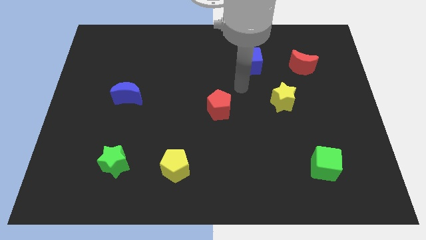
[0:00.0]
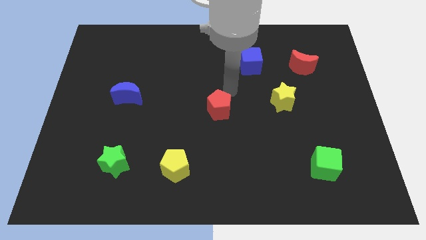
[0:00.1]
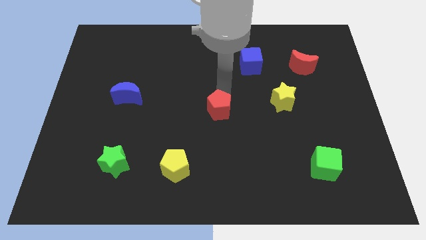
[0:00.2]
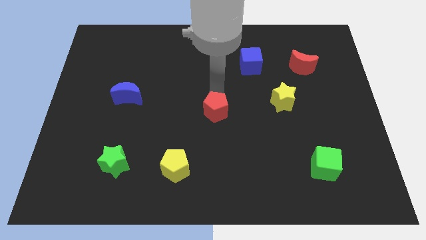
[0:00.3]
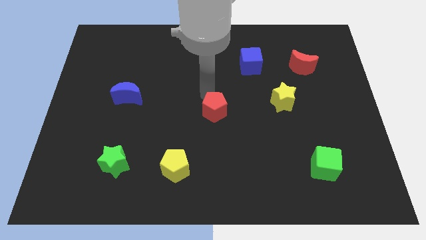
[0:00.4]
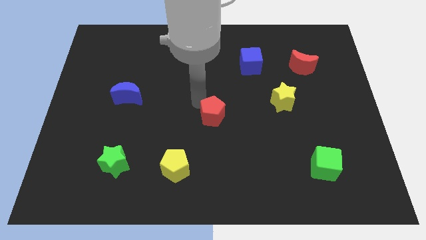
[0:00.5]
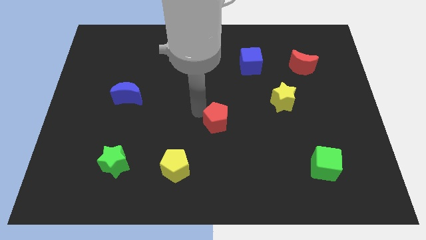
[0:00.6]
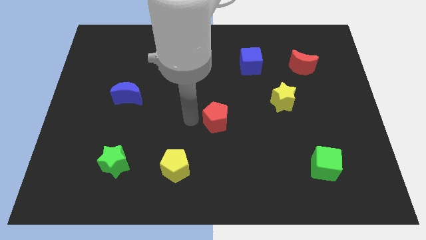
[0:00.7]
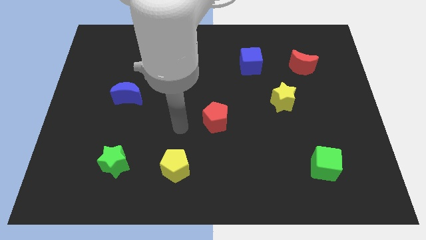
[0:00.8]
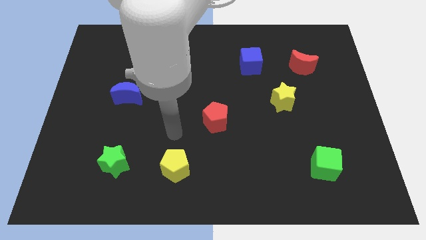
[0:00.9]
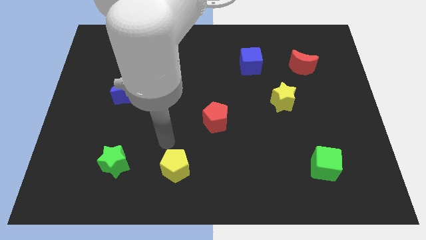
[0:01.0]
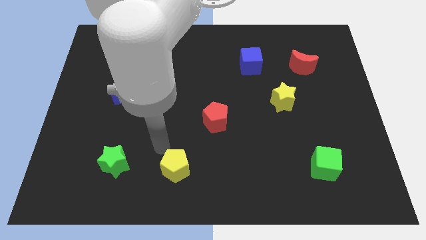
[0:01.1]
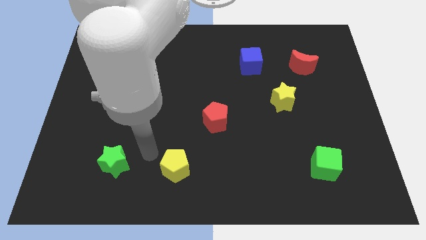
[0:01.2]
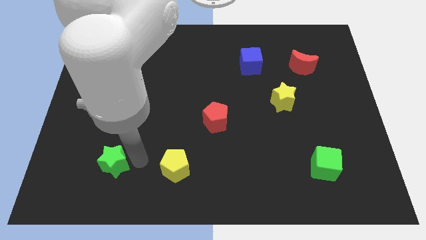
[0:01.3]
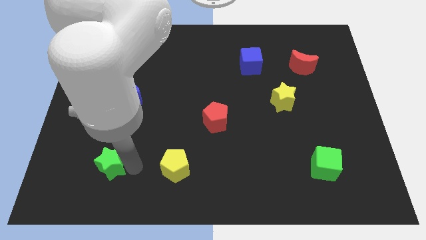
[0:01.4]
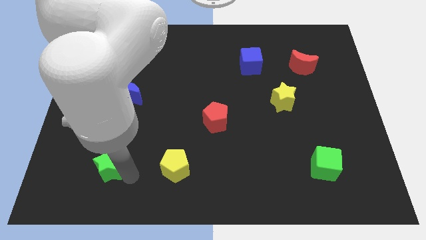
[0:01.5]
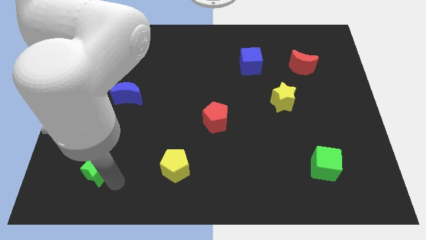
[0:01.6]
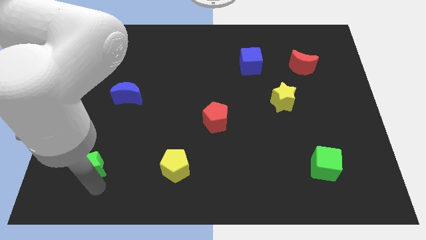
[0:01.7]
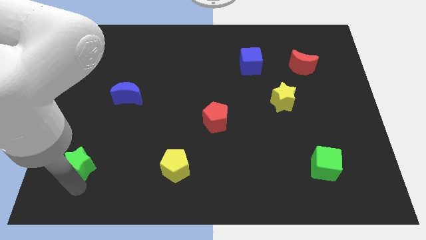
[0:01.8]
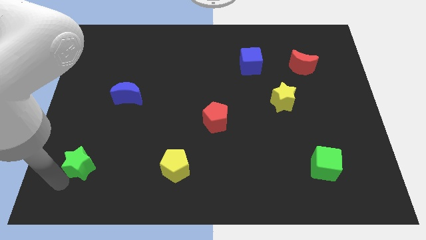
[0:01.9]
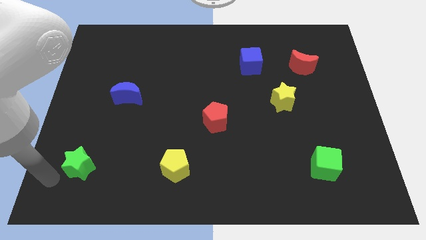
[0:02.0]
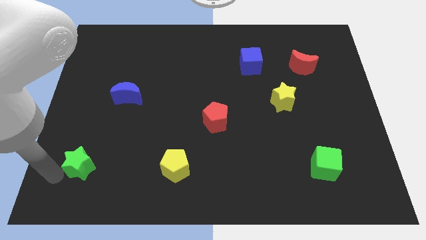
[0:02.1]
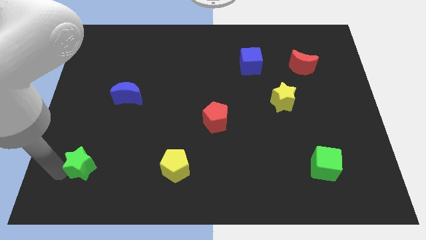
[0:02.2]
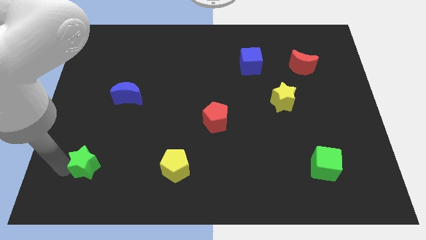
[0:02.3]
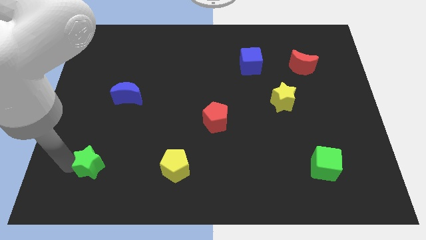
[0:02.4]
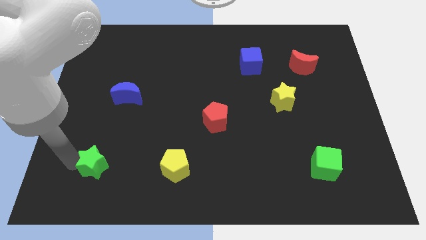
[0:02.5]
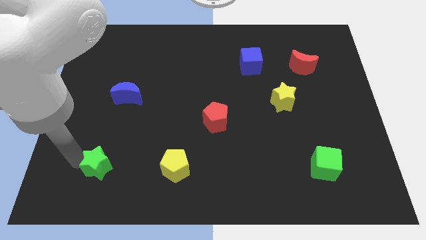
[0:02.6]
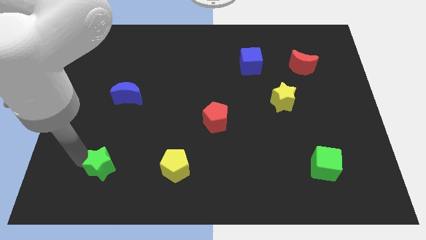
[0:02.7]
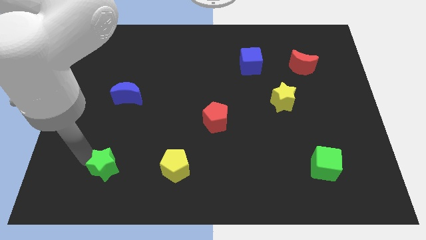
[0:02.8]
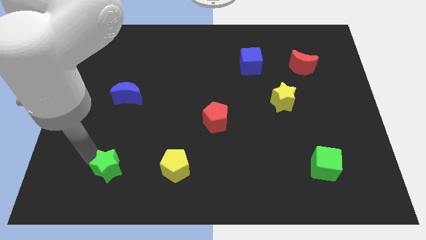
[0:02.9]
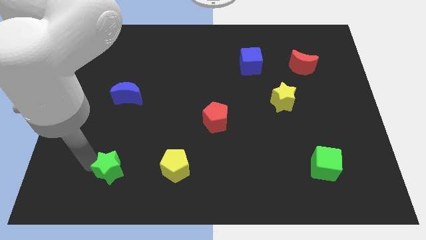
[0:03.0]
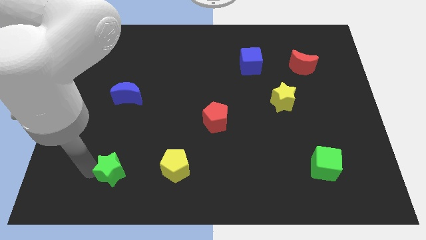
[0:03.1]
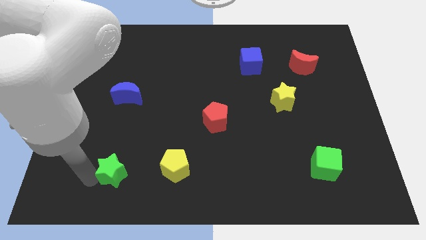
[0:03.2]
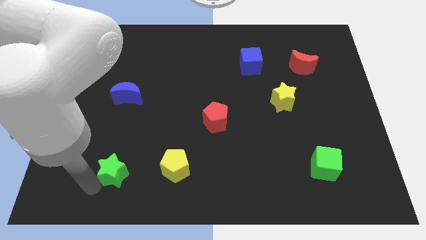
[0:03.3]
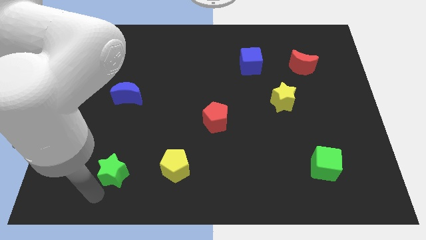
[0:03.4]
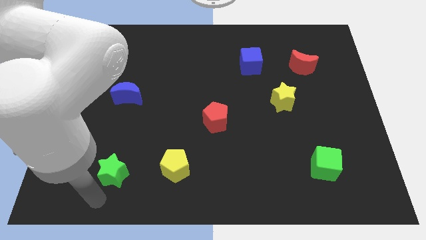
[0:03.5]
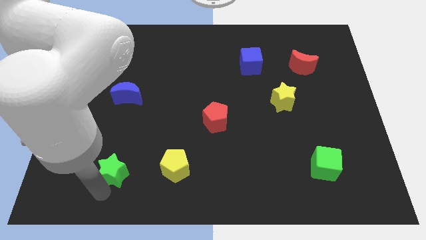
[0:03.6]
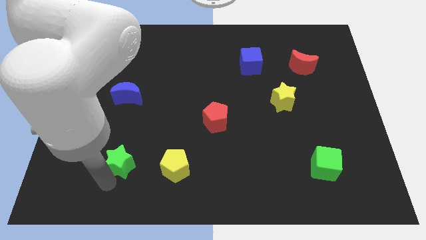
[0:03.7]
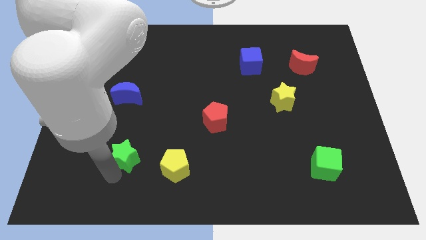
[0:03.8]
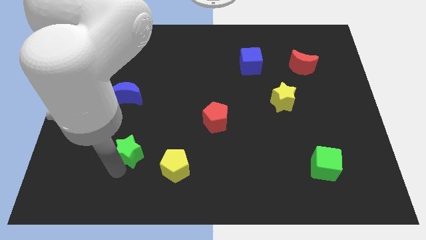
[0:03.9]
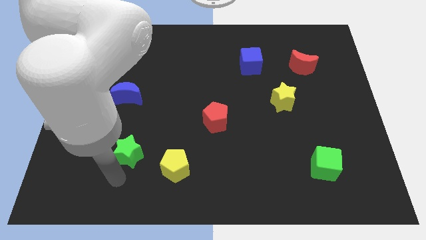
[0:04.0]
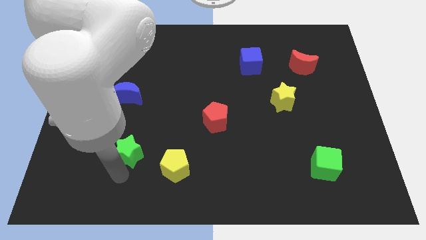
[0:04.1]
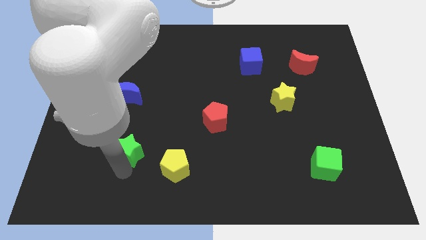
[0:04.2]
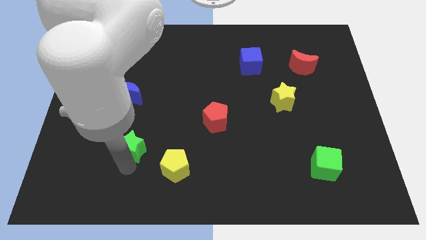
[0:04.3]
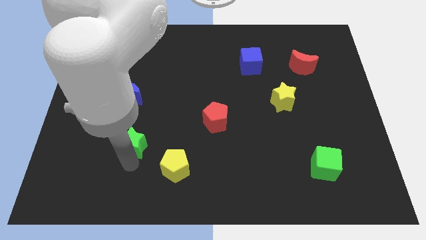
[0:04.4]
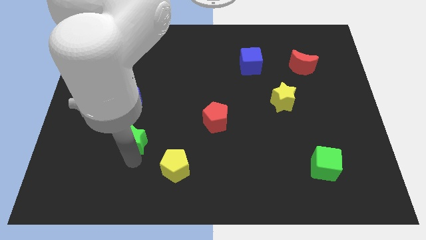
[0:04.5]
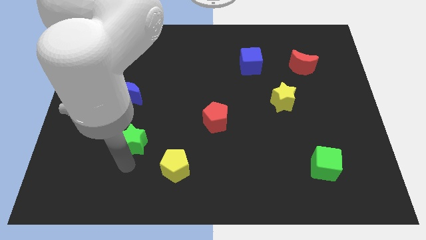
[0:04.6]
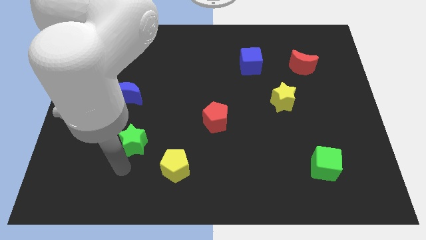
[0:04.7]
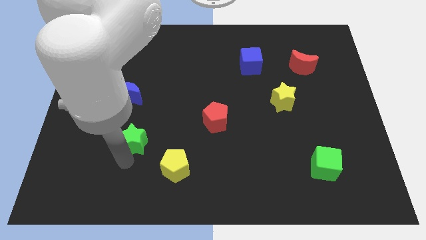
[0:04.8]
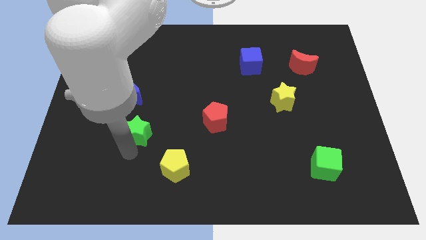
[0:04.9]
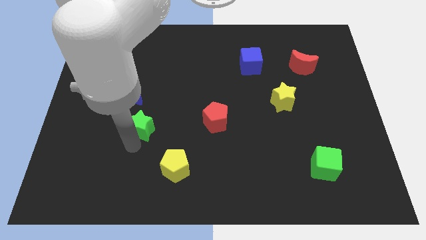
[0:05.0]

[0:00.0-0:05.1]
put the green star to the bottom right side of the blue moon

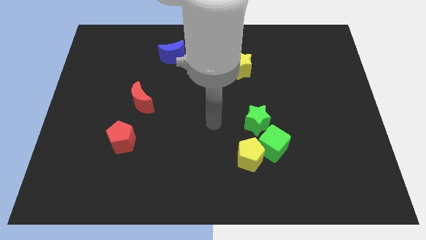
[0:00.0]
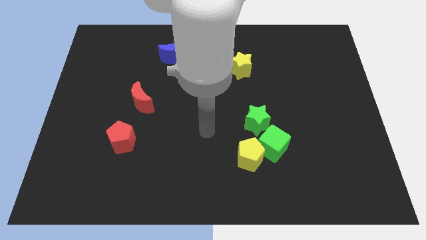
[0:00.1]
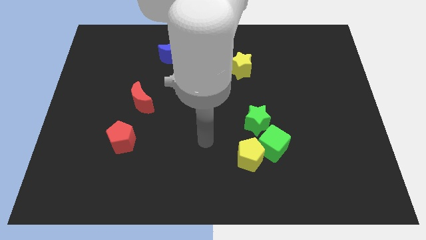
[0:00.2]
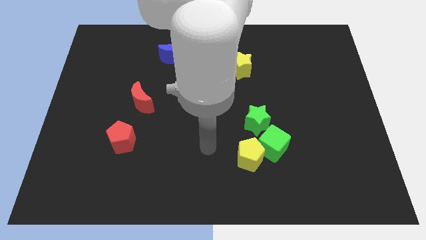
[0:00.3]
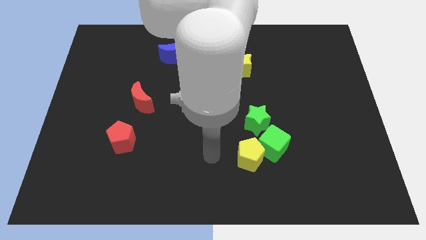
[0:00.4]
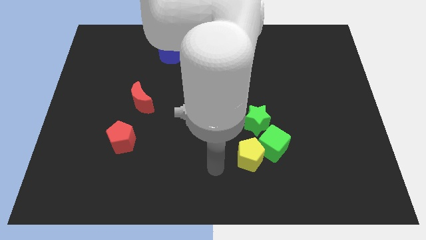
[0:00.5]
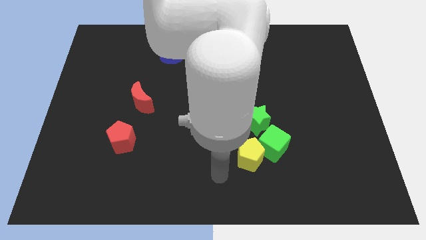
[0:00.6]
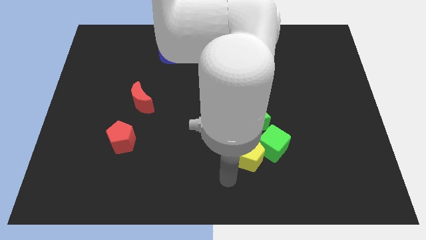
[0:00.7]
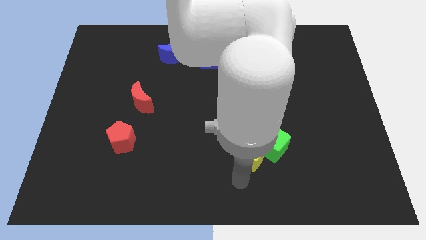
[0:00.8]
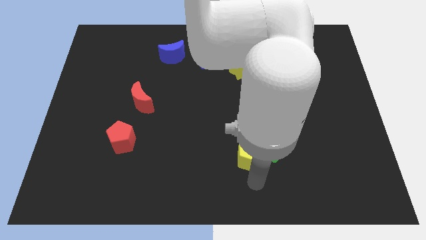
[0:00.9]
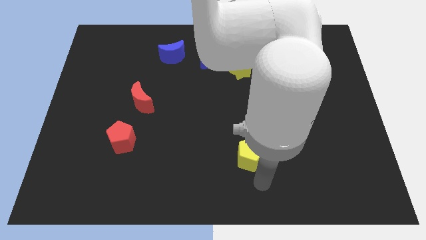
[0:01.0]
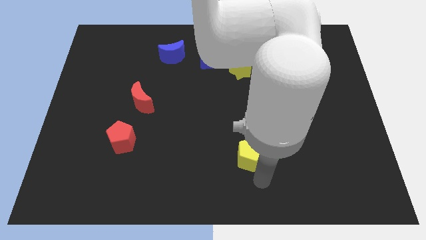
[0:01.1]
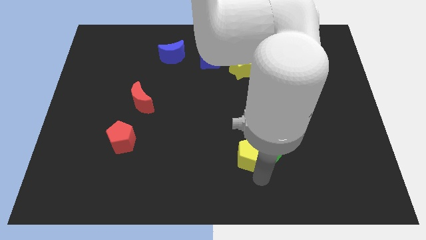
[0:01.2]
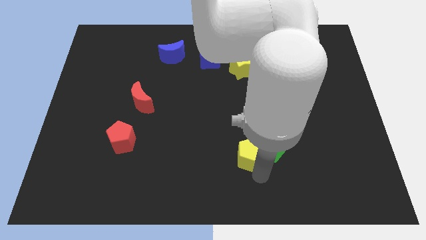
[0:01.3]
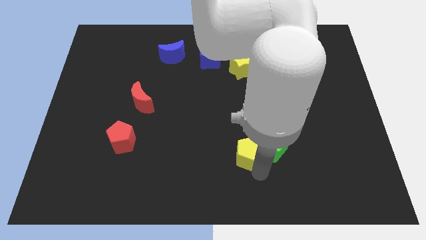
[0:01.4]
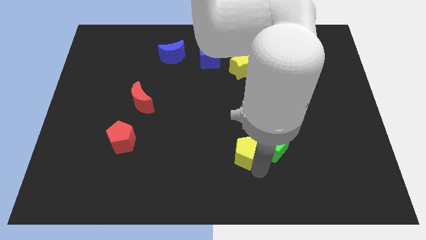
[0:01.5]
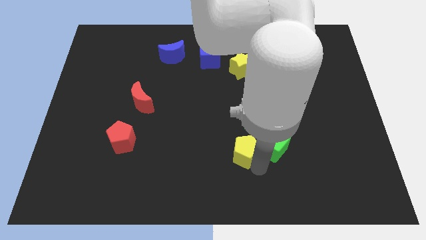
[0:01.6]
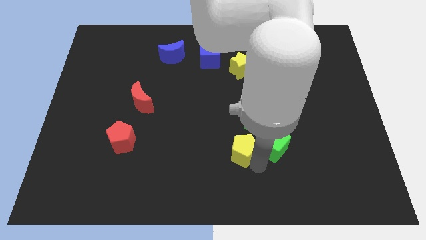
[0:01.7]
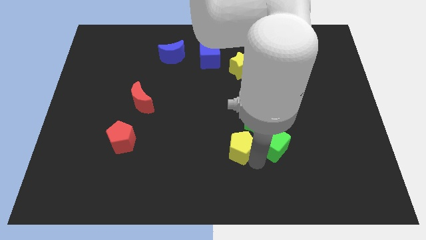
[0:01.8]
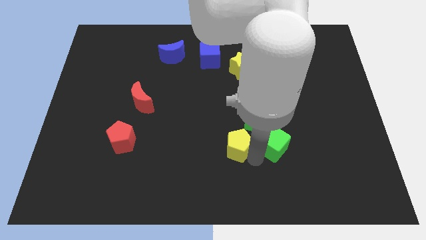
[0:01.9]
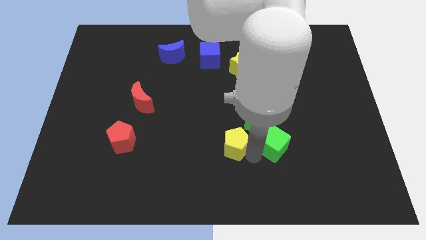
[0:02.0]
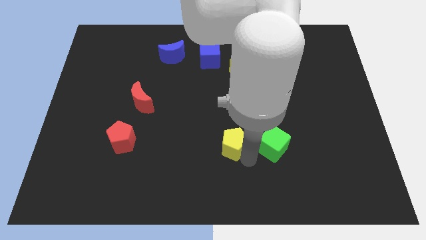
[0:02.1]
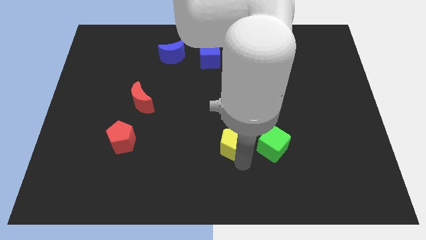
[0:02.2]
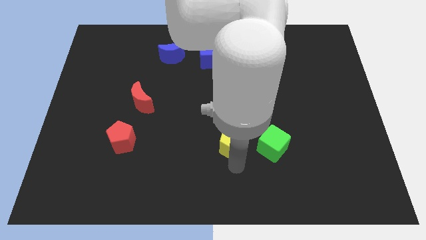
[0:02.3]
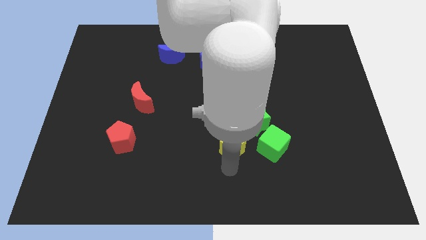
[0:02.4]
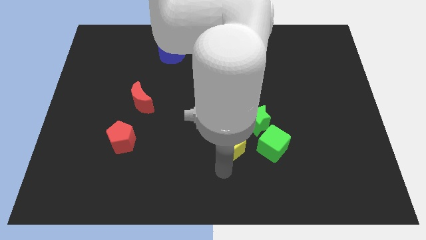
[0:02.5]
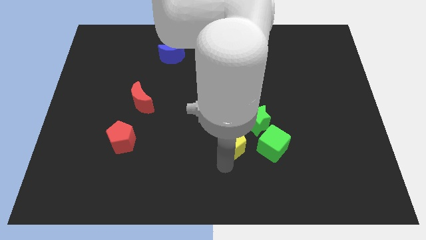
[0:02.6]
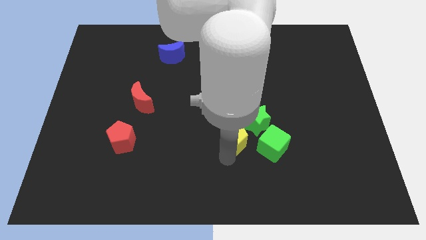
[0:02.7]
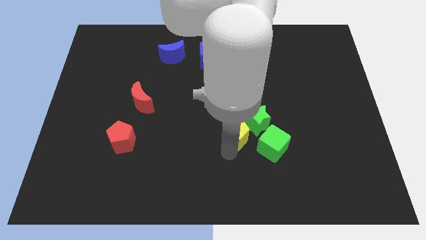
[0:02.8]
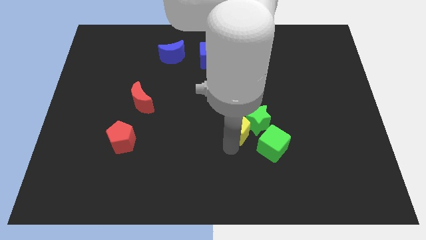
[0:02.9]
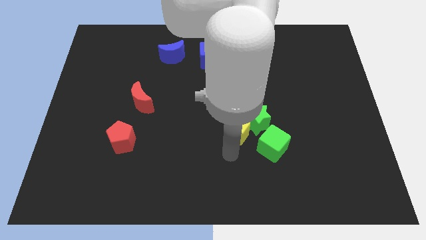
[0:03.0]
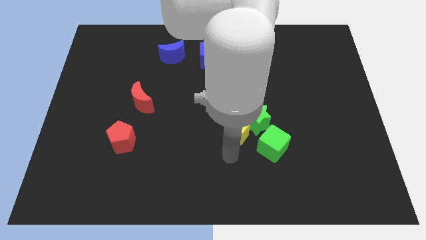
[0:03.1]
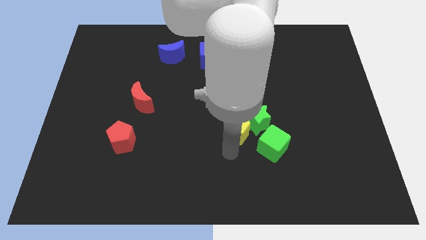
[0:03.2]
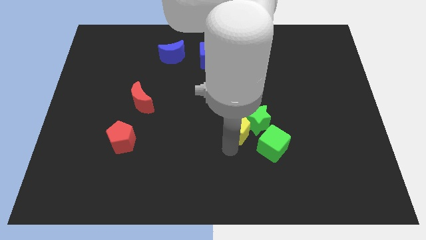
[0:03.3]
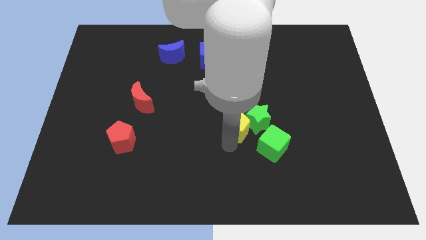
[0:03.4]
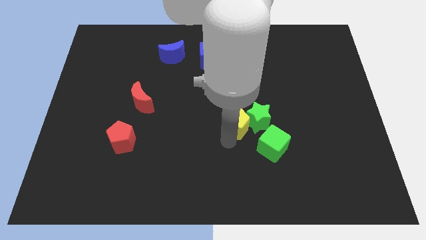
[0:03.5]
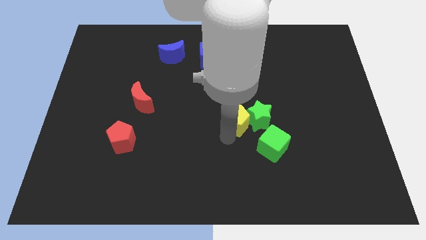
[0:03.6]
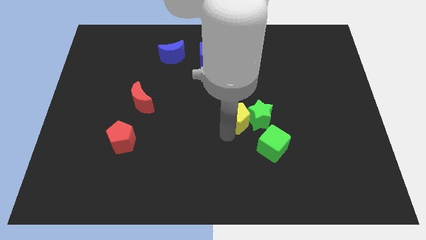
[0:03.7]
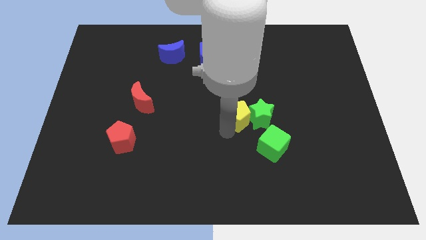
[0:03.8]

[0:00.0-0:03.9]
put the yellow pentagon to the bottom side of the yellow star
